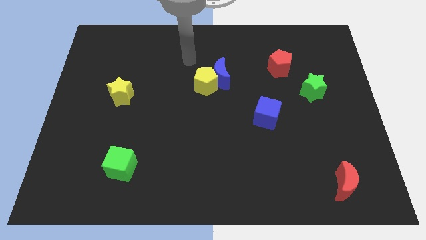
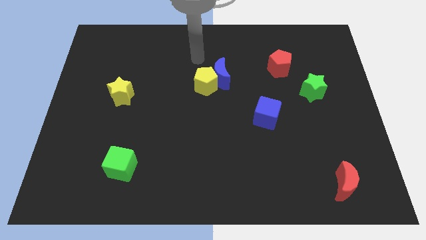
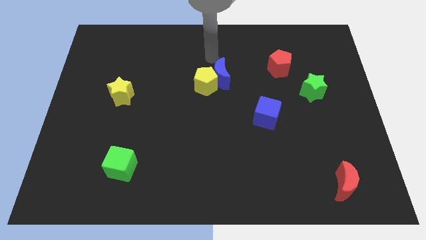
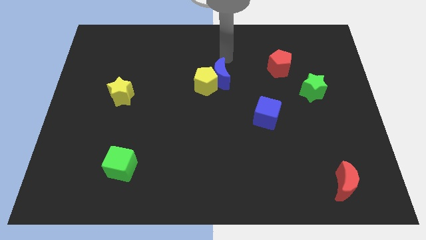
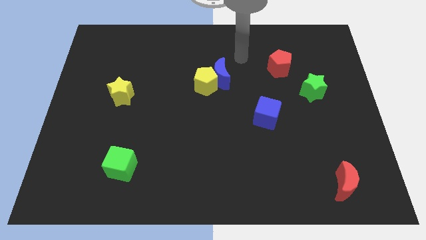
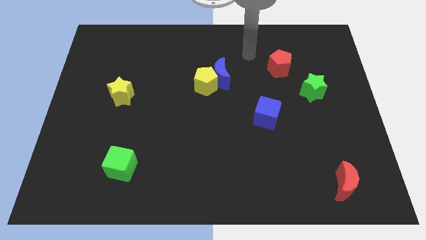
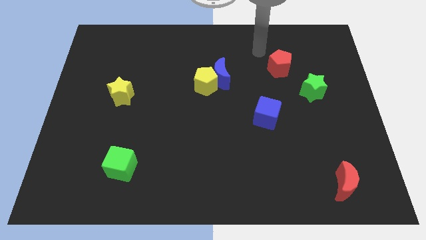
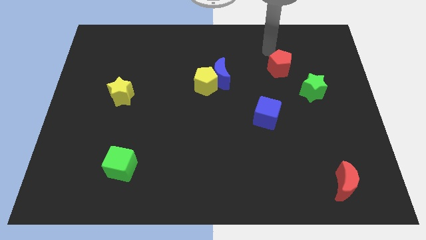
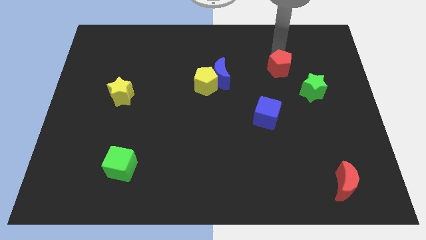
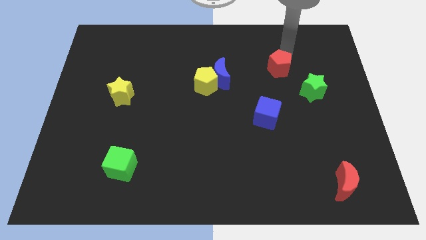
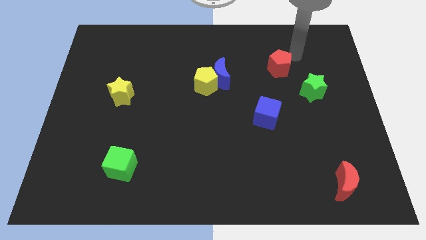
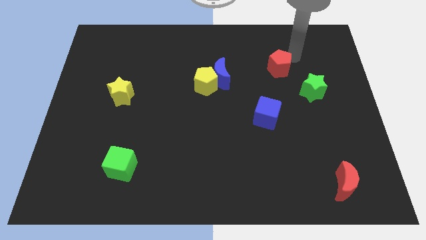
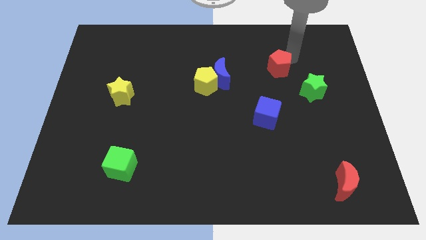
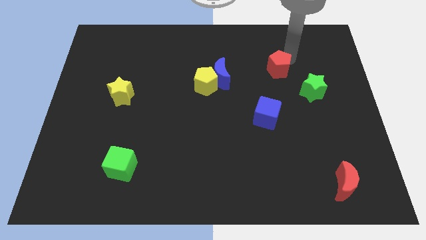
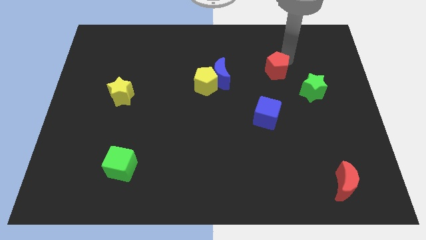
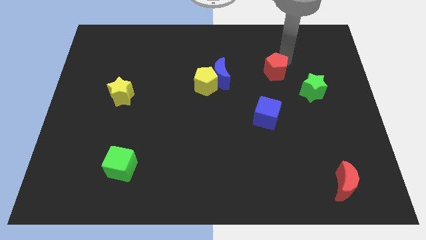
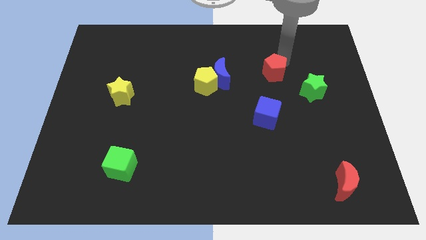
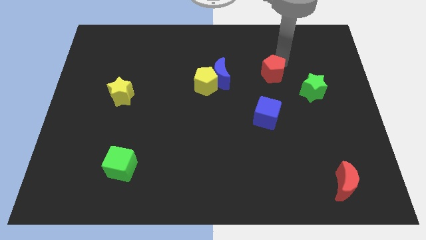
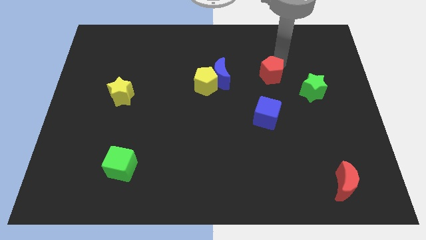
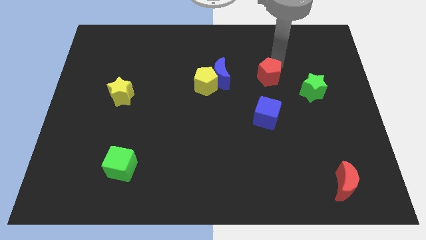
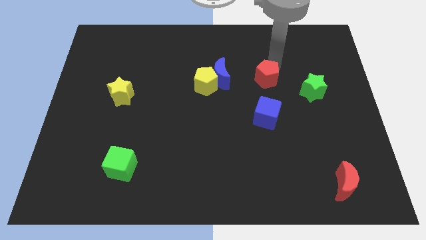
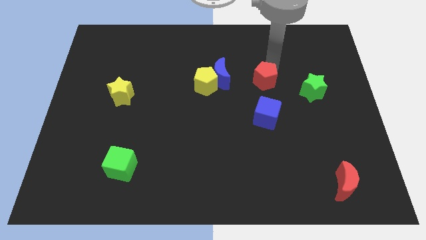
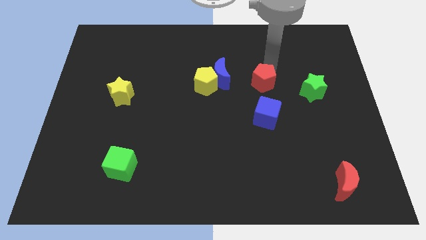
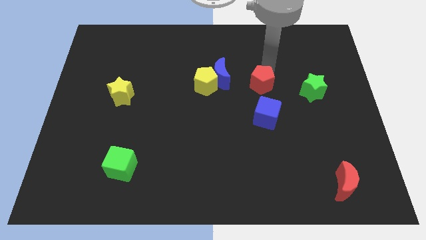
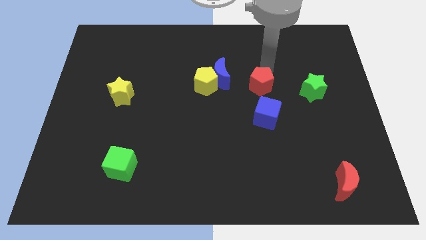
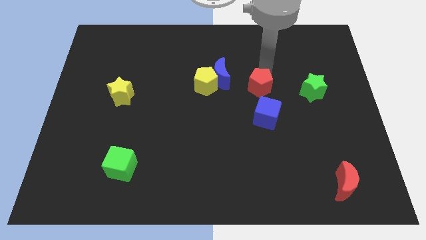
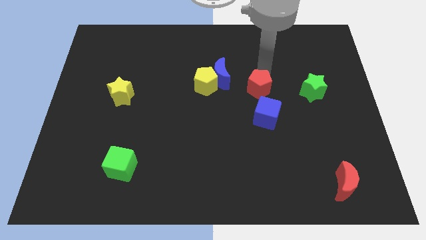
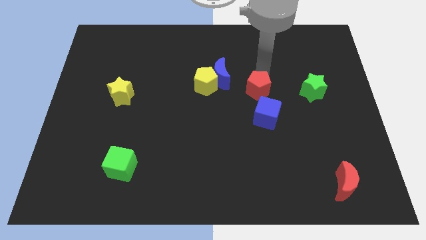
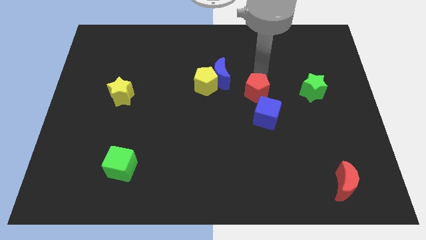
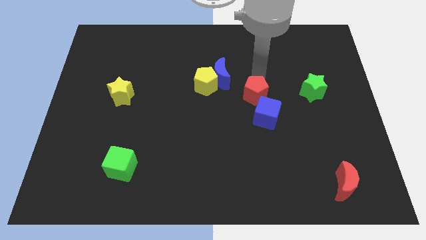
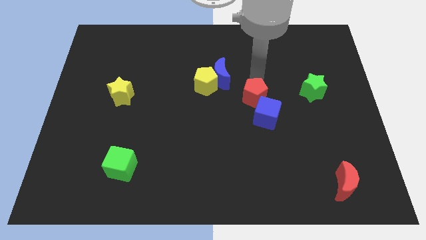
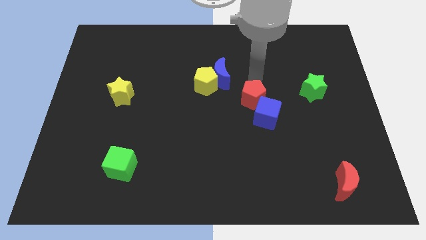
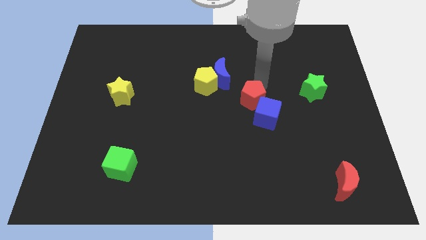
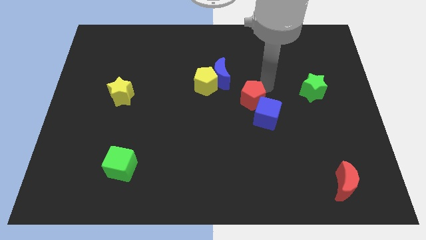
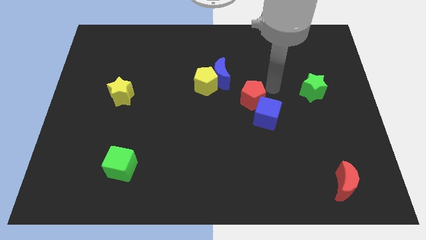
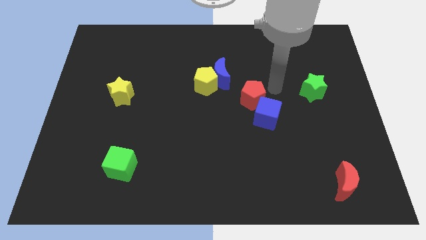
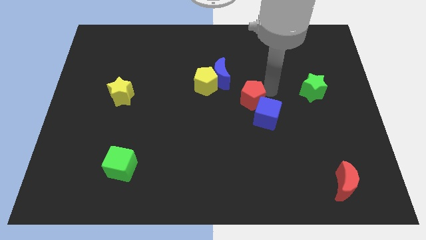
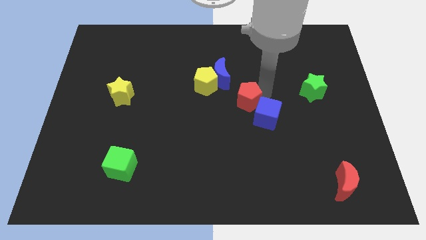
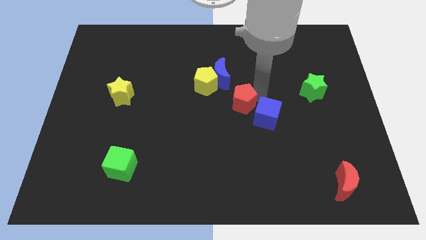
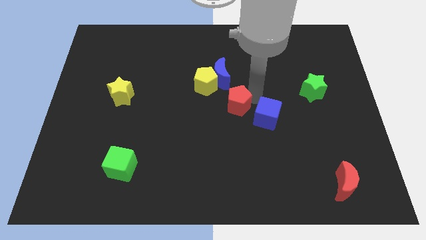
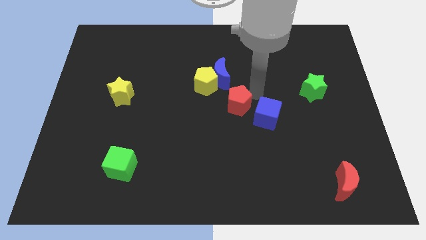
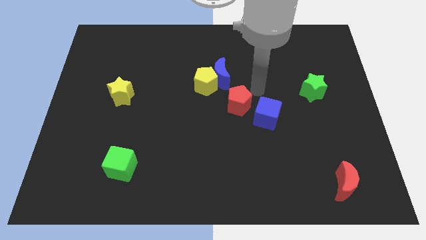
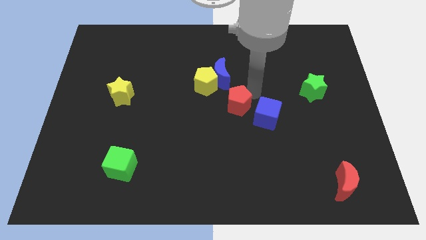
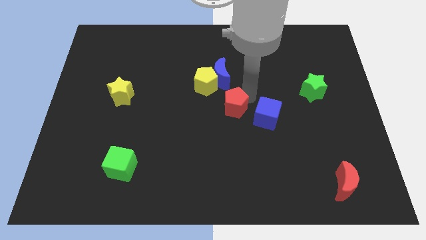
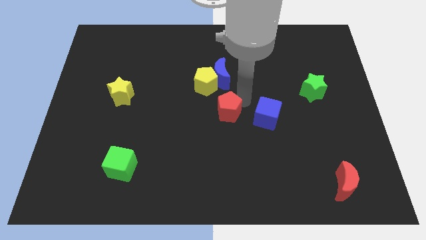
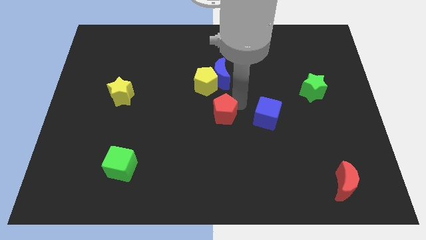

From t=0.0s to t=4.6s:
push the red pentagon diagonally downwards and to the left

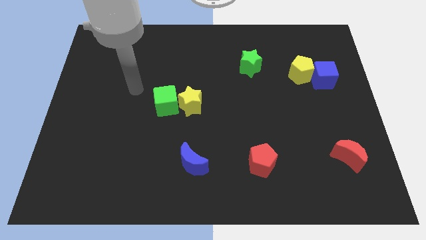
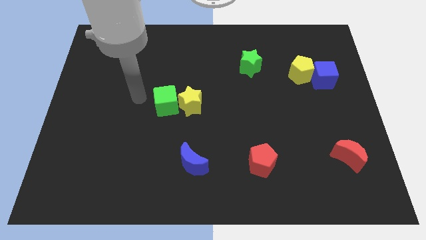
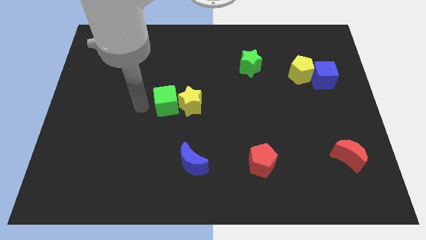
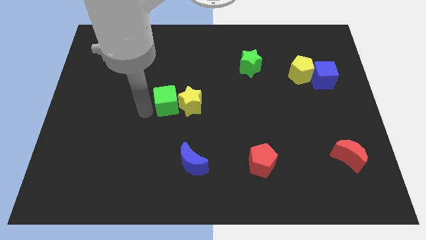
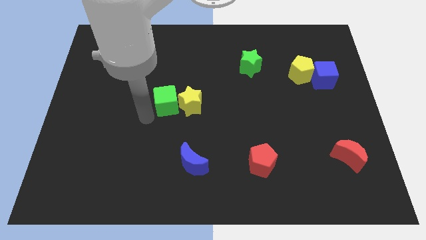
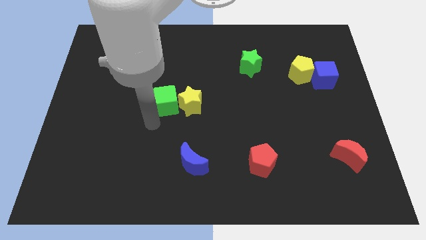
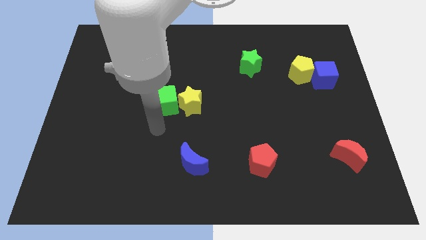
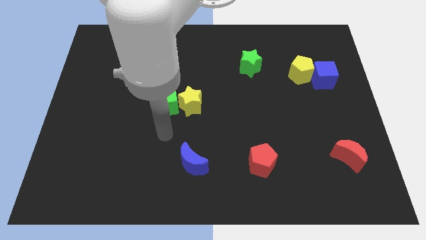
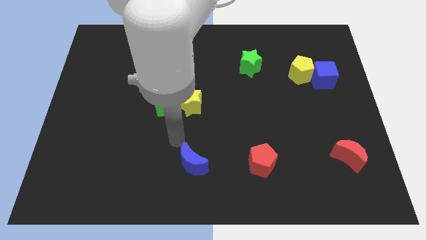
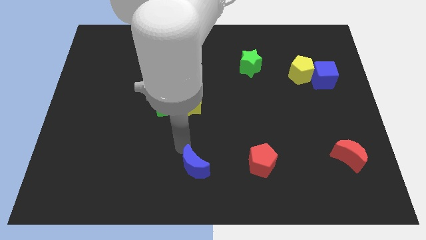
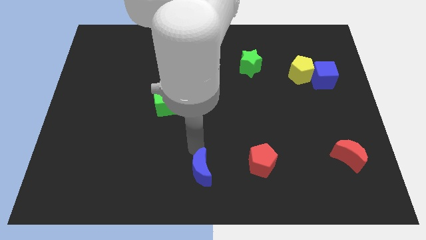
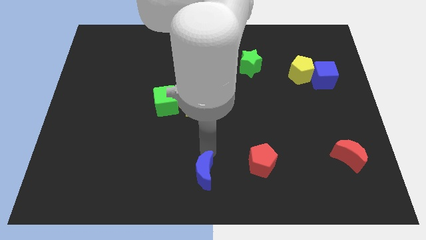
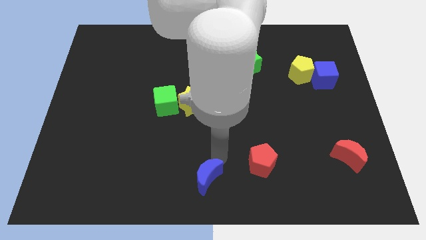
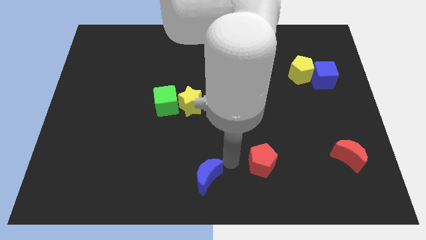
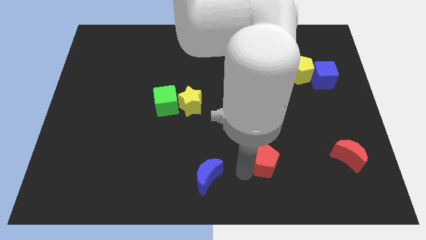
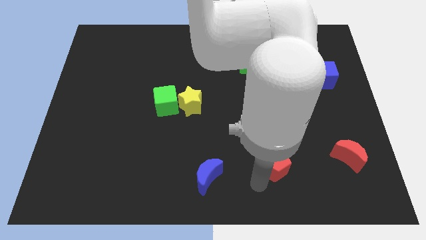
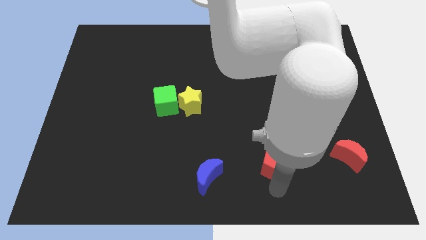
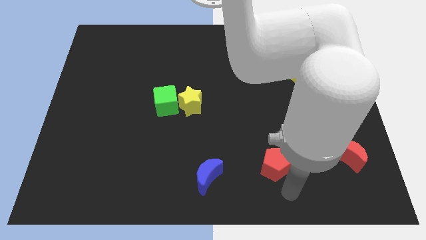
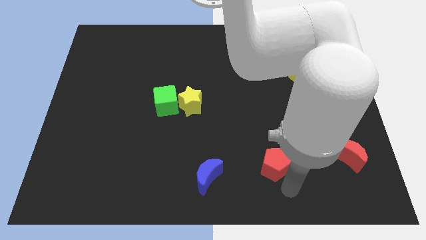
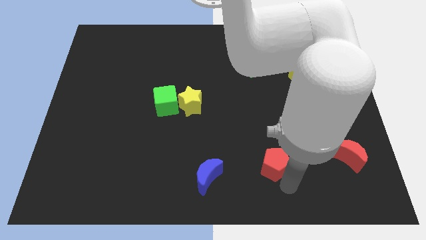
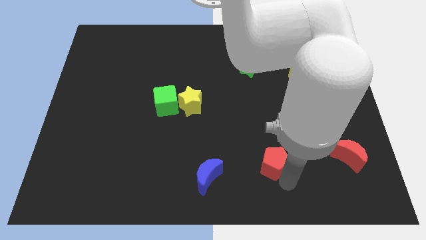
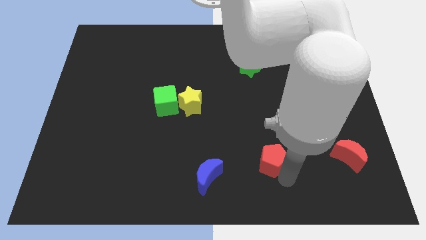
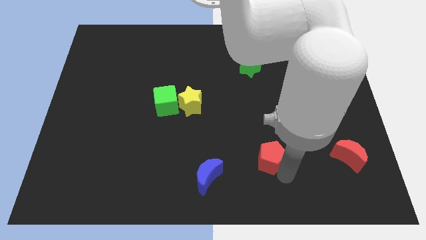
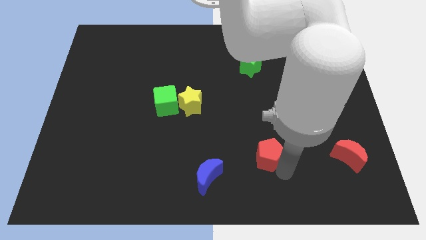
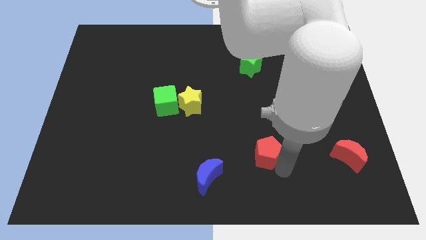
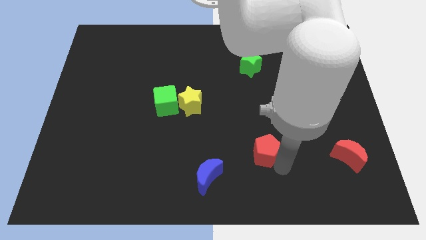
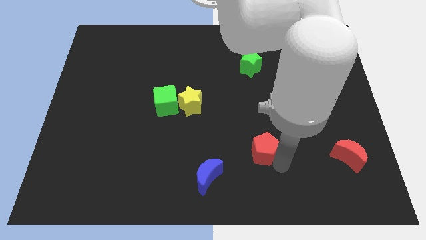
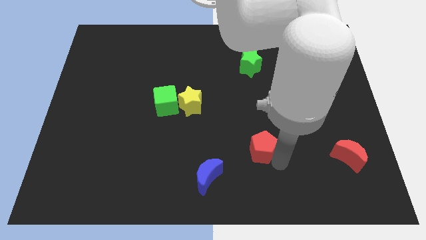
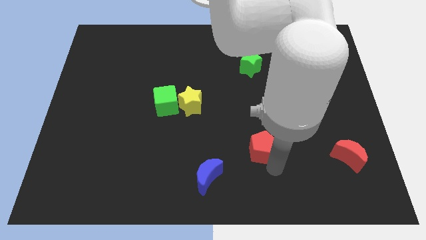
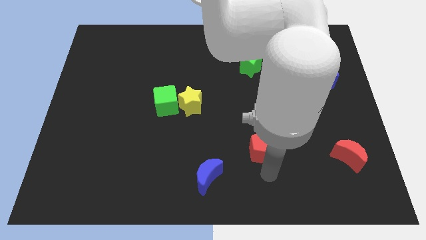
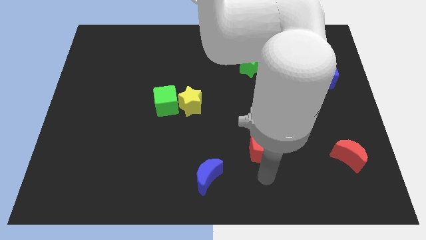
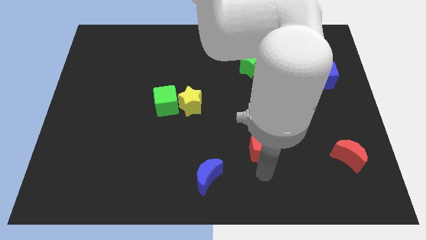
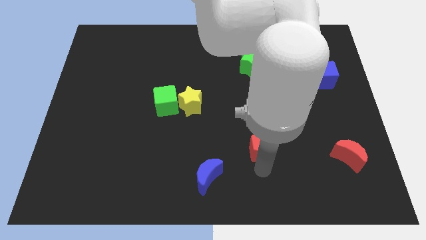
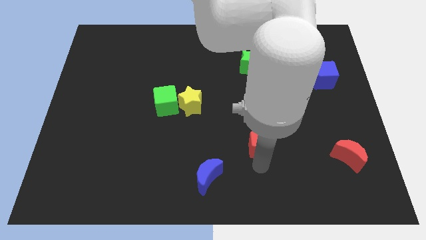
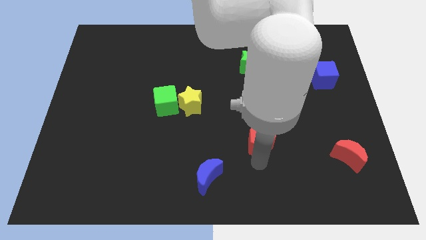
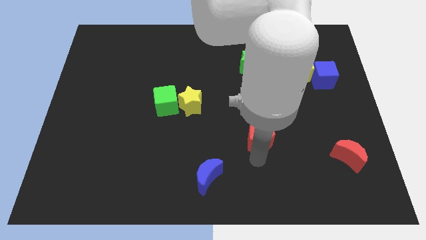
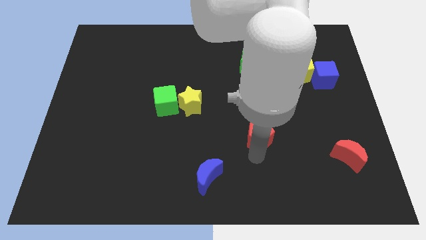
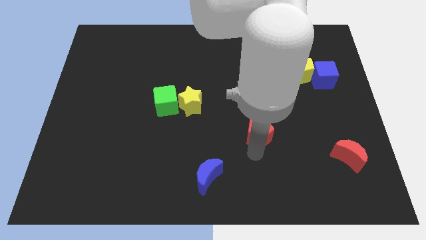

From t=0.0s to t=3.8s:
move the red pentagon up a bit
